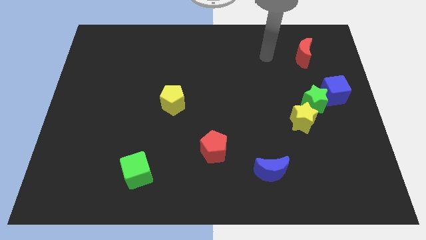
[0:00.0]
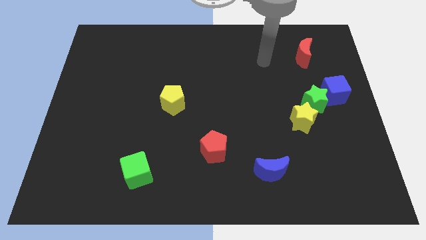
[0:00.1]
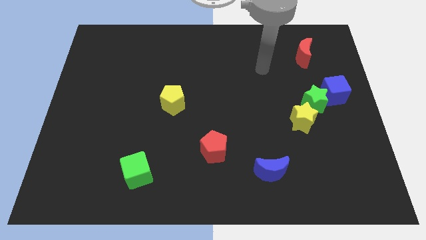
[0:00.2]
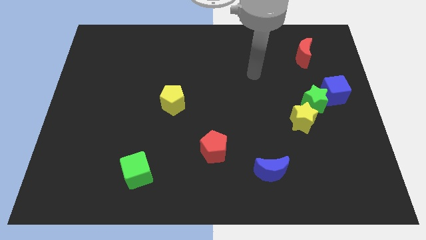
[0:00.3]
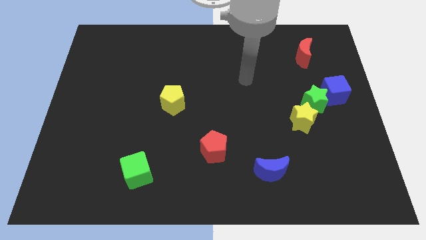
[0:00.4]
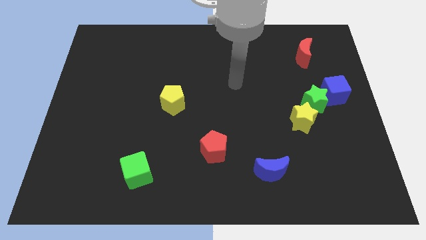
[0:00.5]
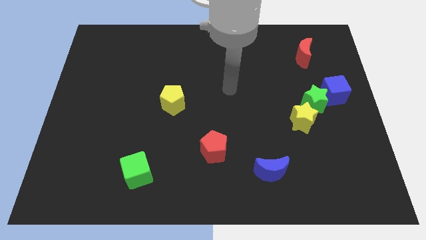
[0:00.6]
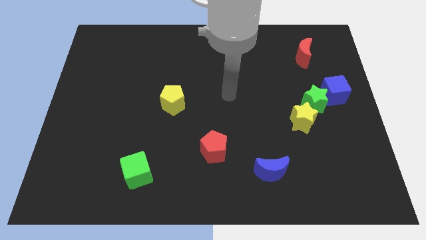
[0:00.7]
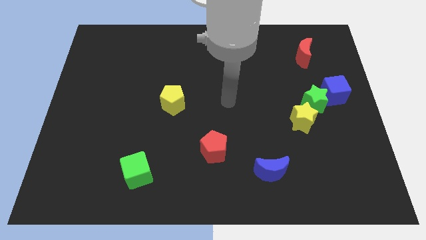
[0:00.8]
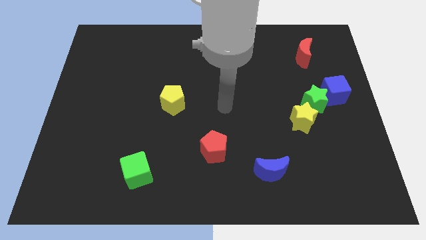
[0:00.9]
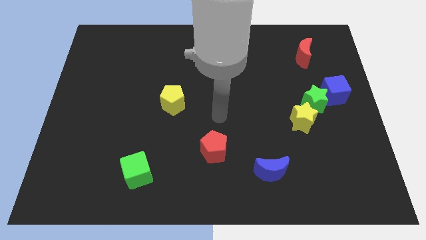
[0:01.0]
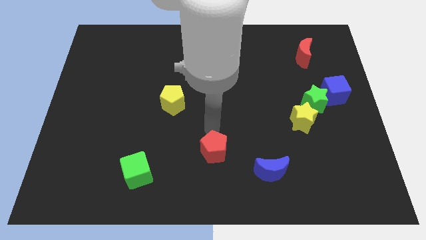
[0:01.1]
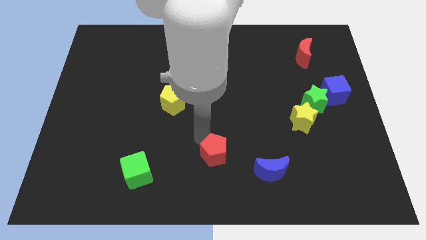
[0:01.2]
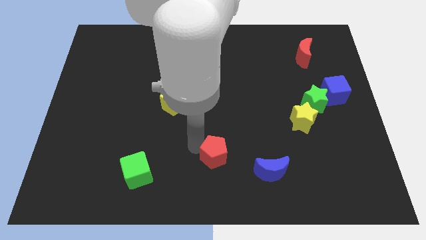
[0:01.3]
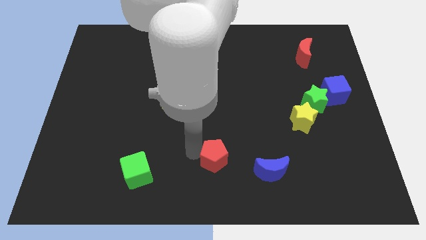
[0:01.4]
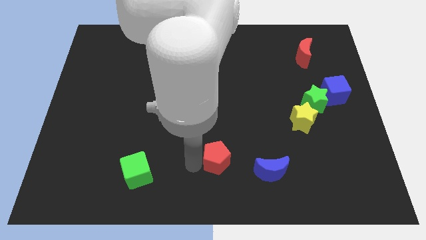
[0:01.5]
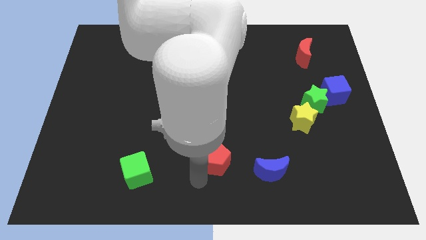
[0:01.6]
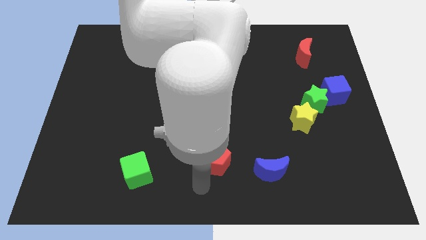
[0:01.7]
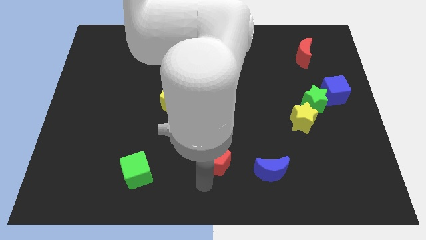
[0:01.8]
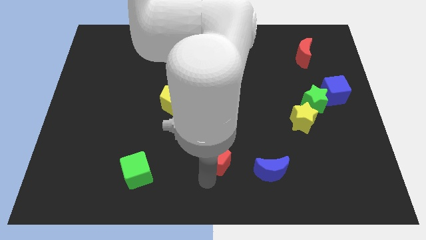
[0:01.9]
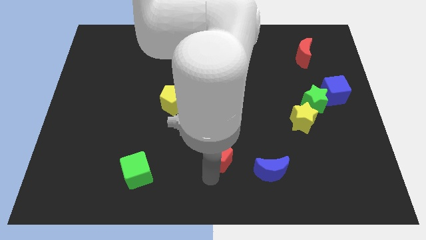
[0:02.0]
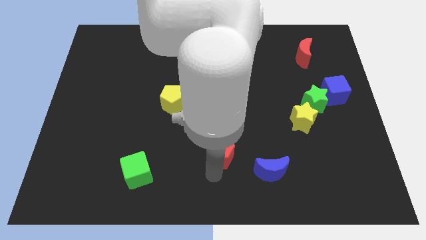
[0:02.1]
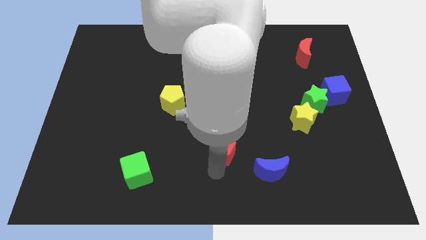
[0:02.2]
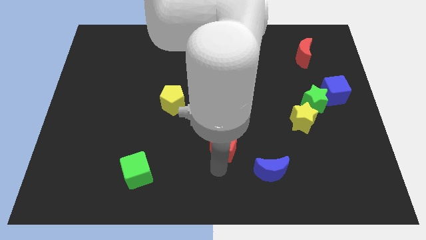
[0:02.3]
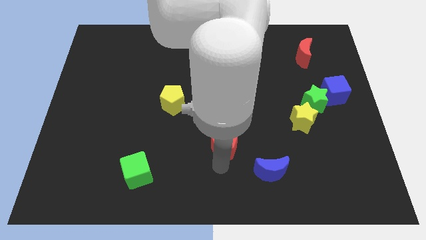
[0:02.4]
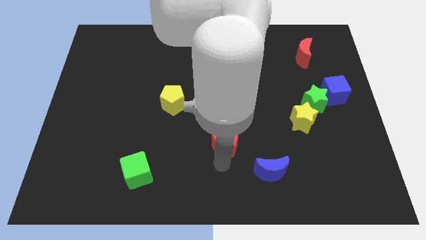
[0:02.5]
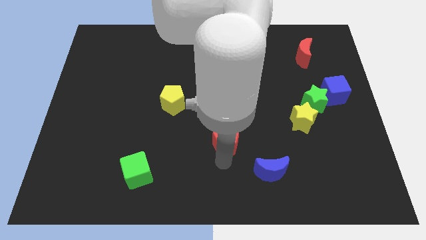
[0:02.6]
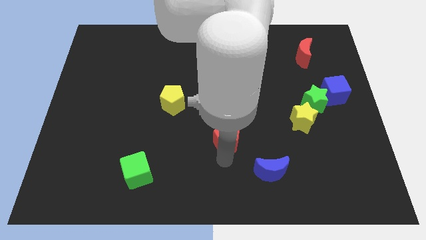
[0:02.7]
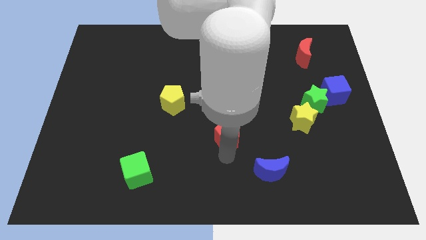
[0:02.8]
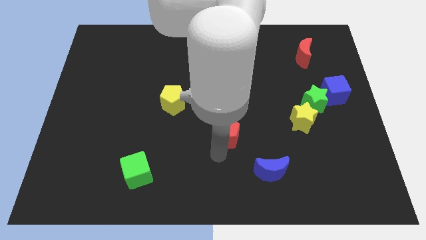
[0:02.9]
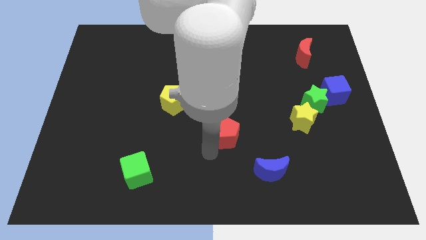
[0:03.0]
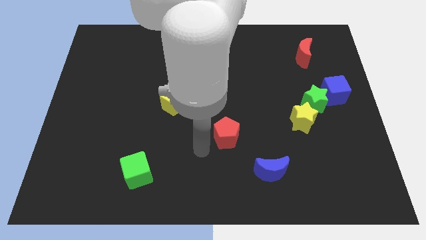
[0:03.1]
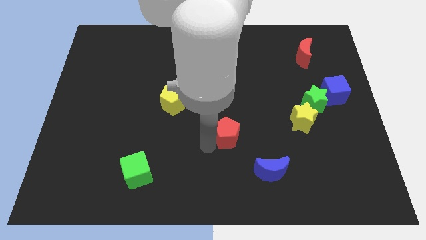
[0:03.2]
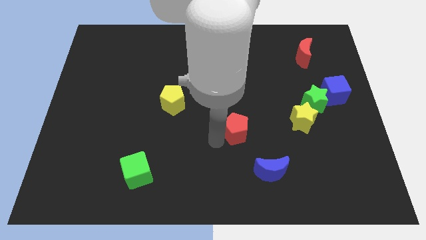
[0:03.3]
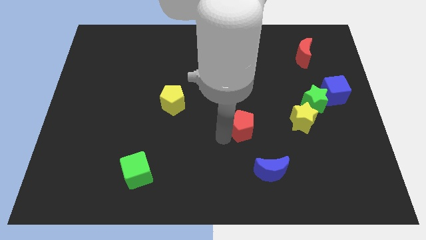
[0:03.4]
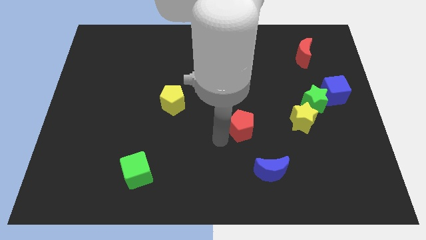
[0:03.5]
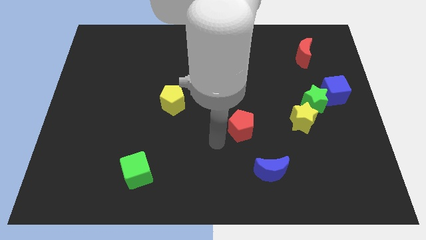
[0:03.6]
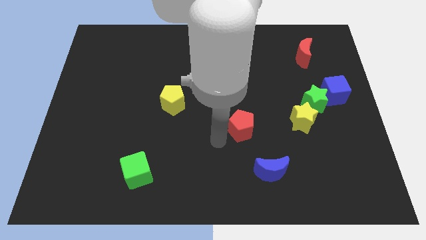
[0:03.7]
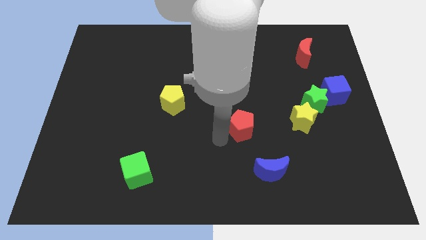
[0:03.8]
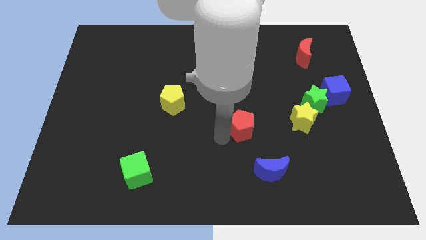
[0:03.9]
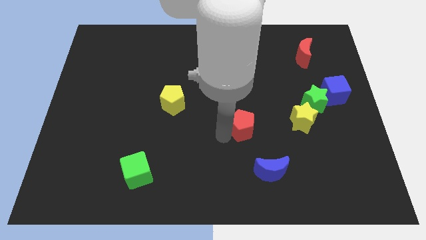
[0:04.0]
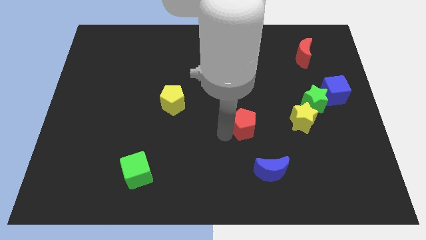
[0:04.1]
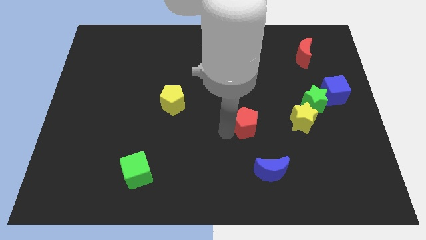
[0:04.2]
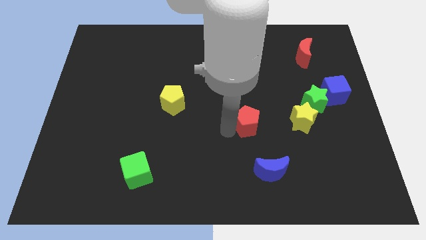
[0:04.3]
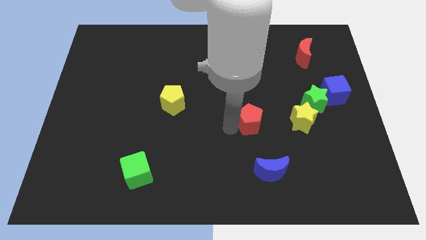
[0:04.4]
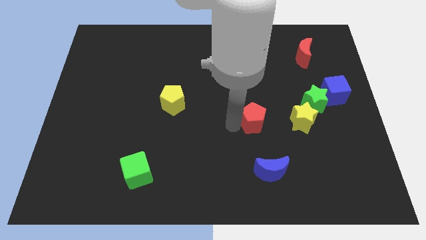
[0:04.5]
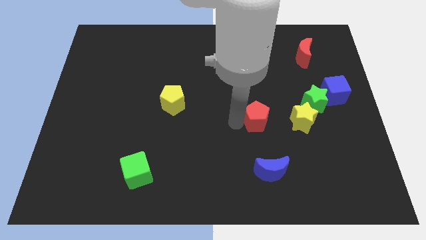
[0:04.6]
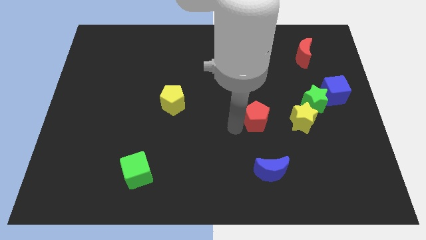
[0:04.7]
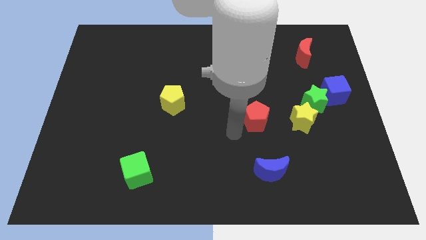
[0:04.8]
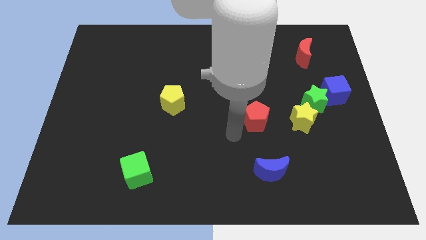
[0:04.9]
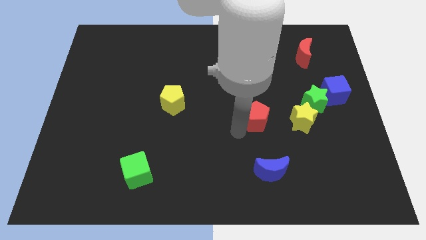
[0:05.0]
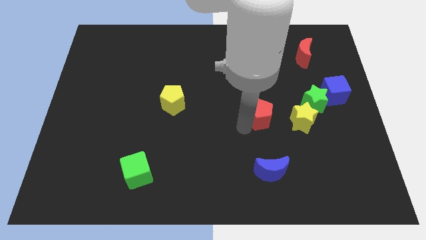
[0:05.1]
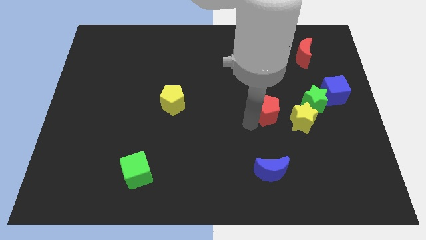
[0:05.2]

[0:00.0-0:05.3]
slide the red pentagon to the top left side of the yellow star

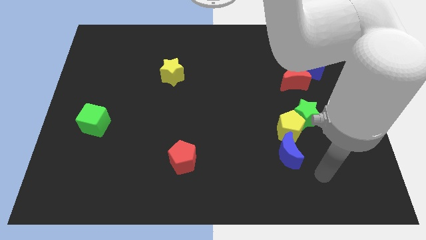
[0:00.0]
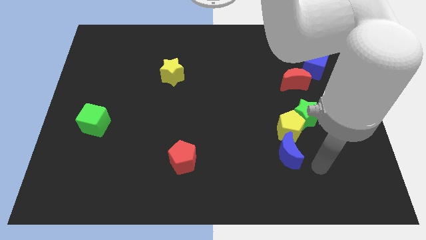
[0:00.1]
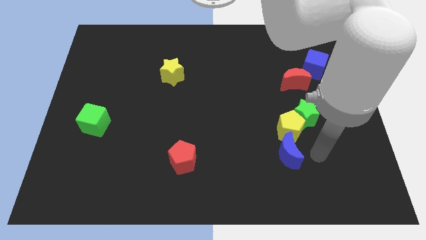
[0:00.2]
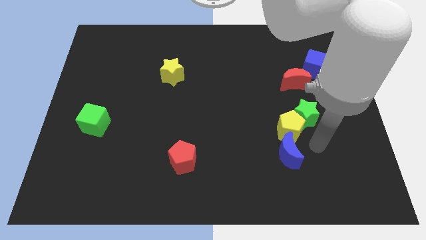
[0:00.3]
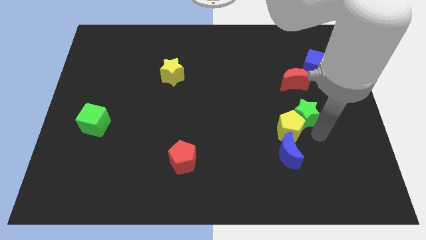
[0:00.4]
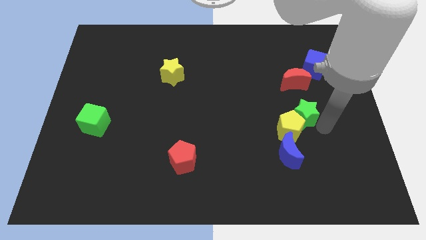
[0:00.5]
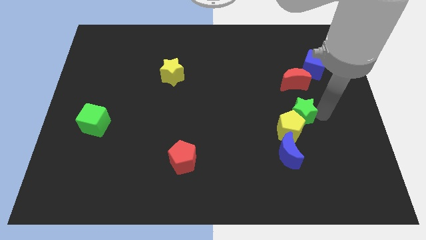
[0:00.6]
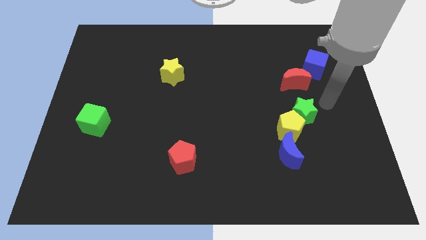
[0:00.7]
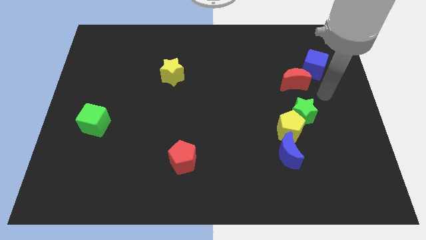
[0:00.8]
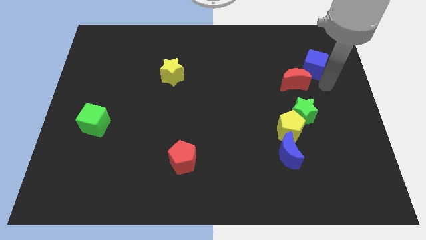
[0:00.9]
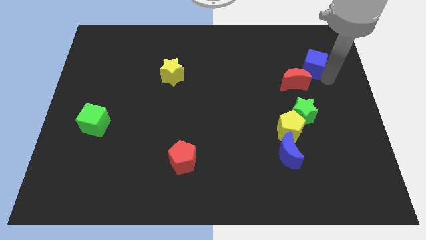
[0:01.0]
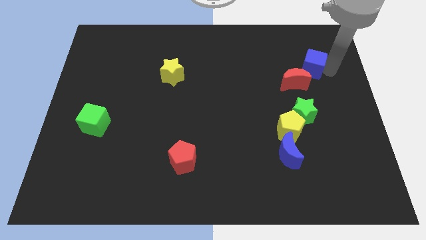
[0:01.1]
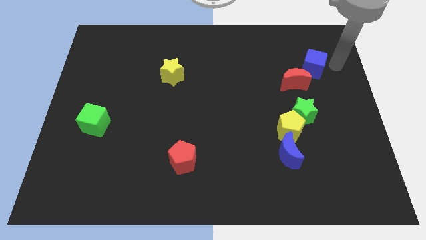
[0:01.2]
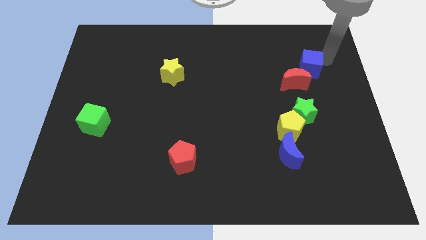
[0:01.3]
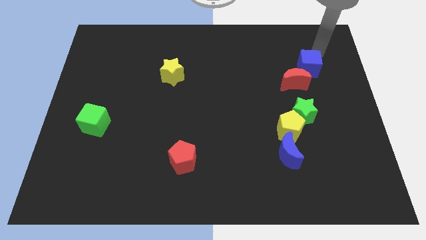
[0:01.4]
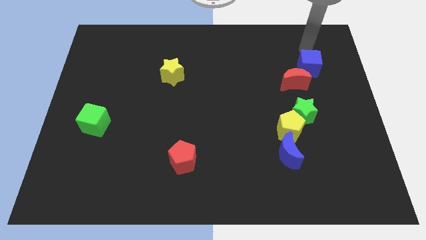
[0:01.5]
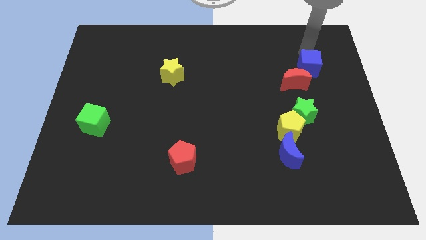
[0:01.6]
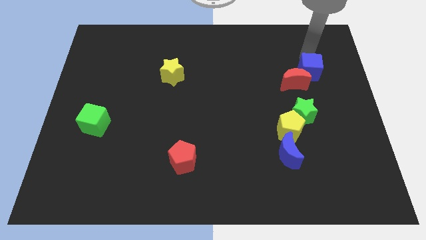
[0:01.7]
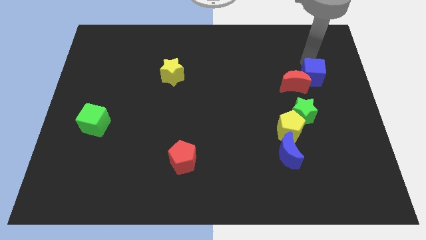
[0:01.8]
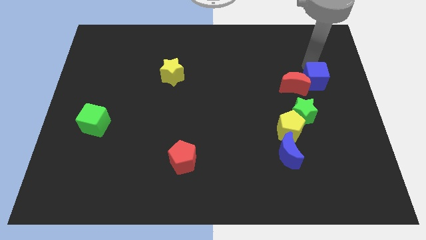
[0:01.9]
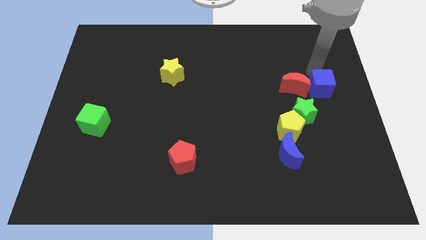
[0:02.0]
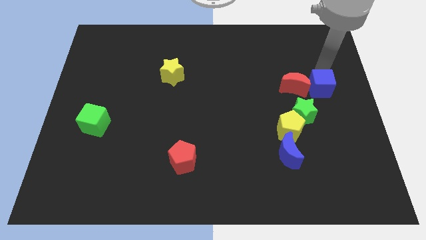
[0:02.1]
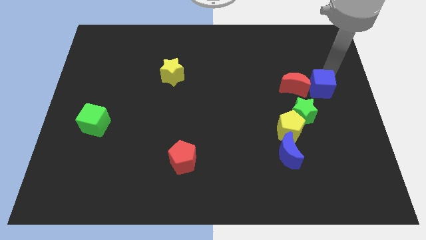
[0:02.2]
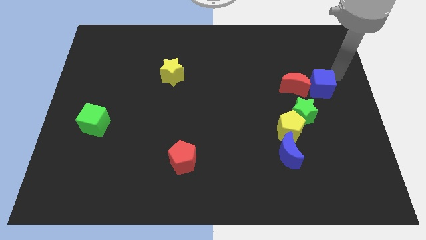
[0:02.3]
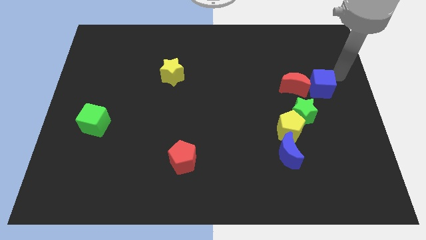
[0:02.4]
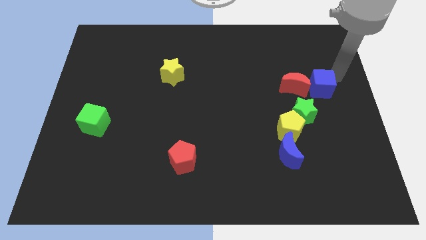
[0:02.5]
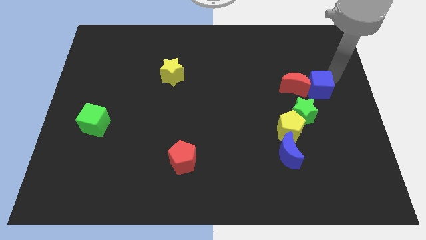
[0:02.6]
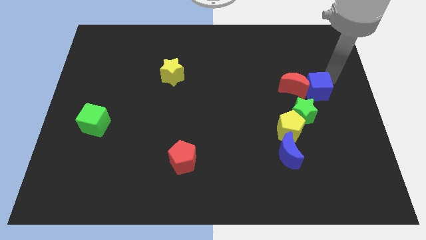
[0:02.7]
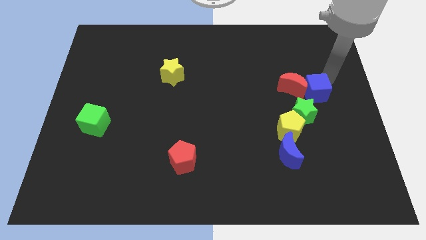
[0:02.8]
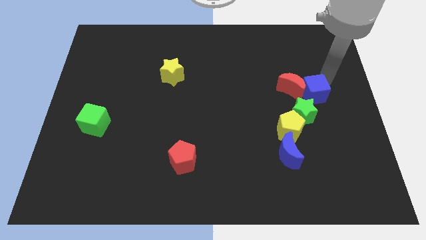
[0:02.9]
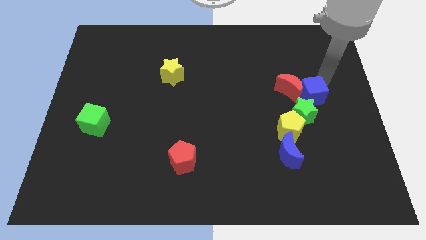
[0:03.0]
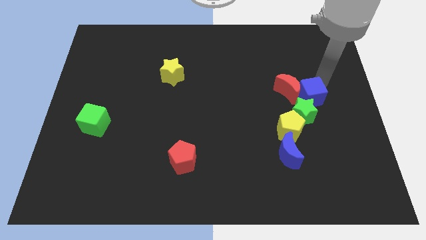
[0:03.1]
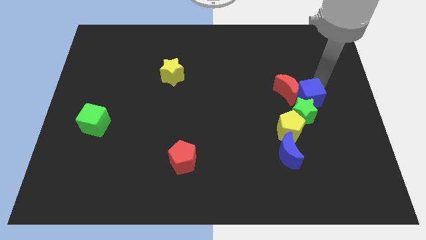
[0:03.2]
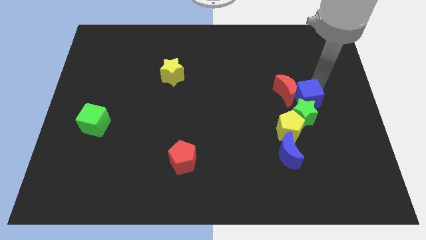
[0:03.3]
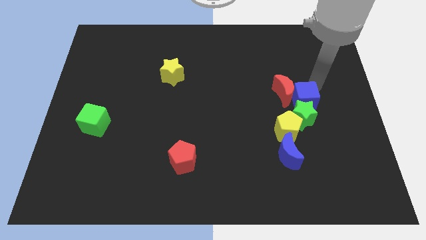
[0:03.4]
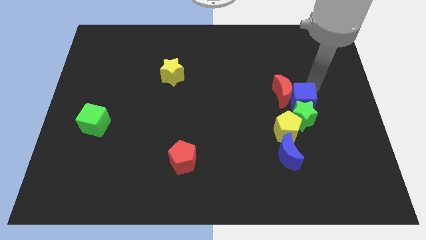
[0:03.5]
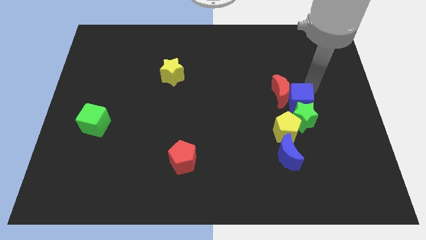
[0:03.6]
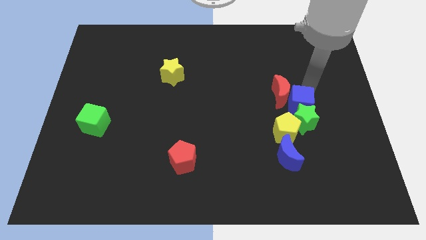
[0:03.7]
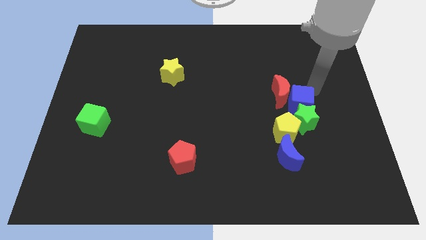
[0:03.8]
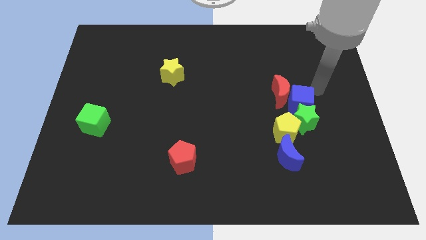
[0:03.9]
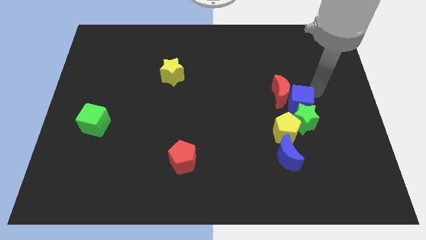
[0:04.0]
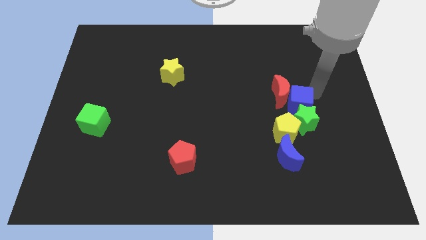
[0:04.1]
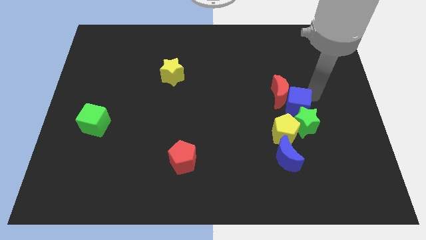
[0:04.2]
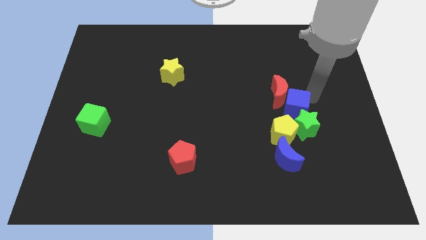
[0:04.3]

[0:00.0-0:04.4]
move the blue cube above the blue moon
